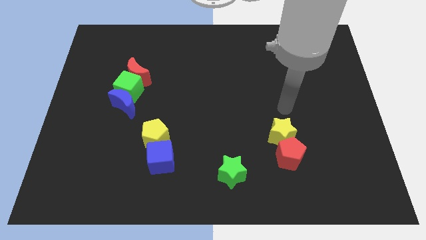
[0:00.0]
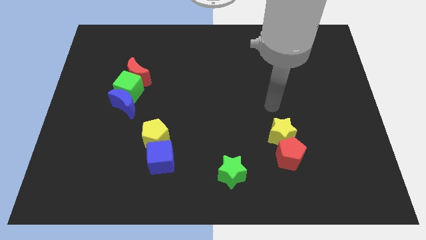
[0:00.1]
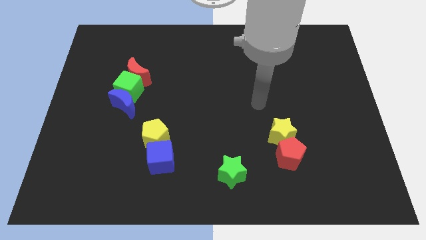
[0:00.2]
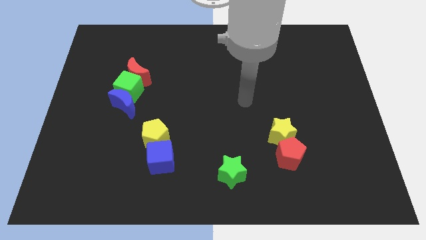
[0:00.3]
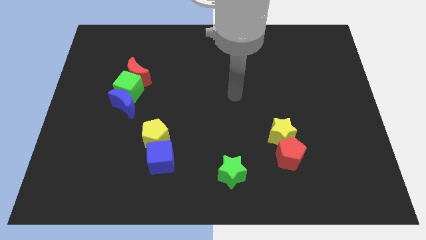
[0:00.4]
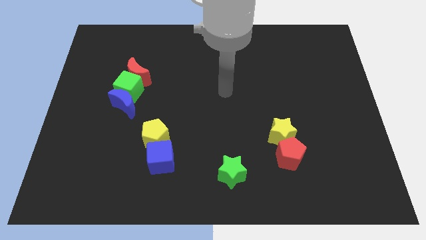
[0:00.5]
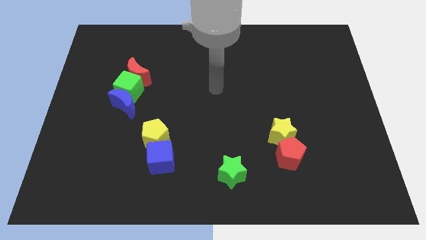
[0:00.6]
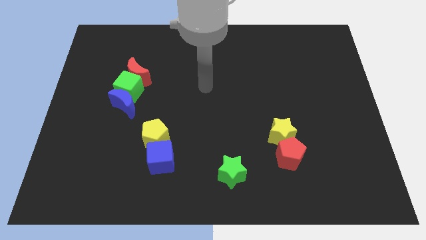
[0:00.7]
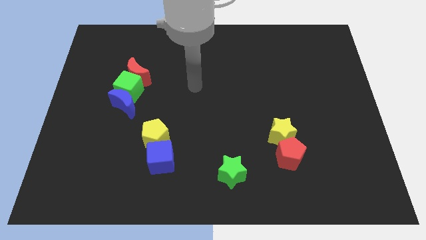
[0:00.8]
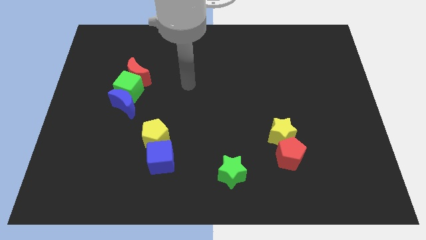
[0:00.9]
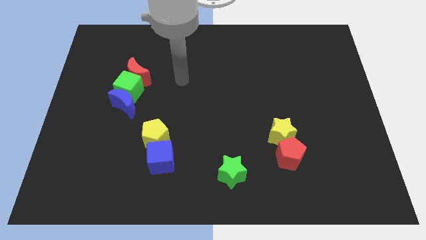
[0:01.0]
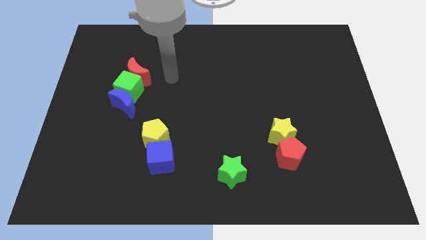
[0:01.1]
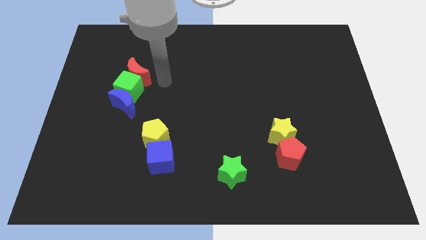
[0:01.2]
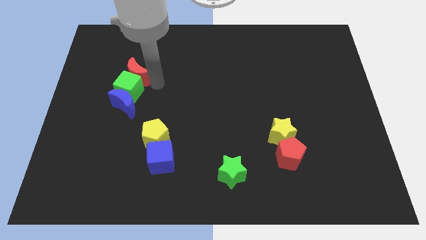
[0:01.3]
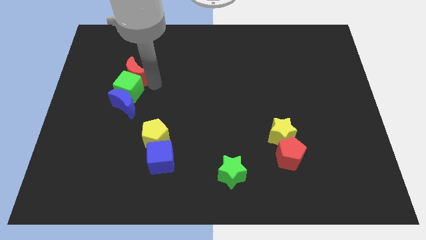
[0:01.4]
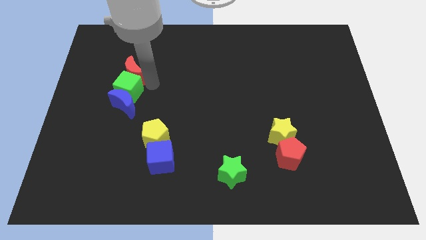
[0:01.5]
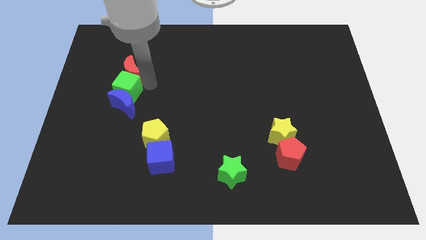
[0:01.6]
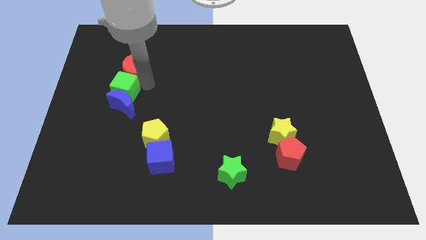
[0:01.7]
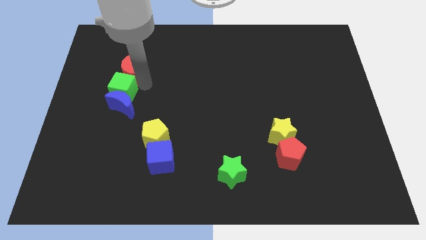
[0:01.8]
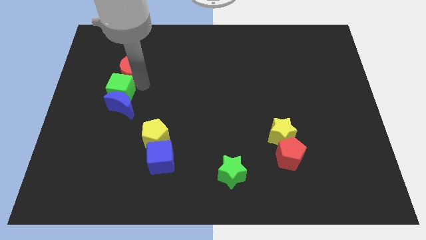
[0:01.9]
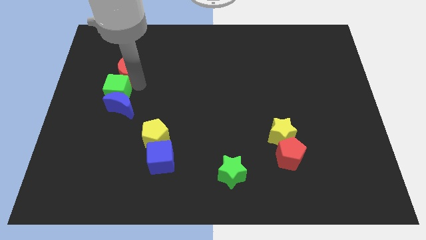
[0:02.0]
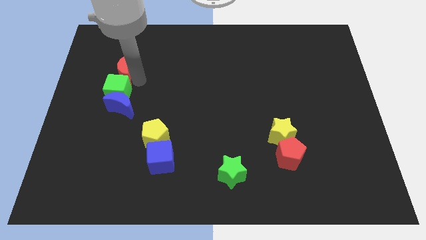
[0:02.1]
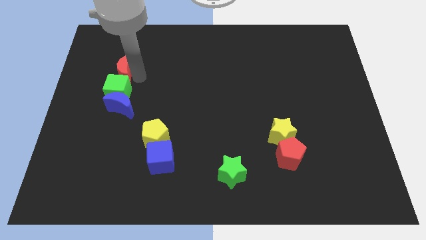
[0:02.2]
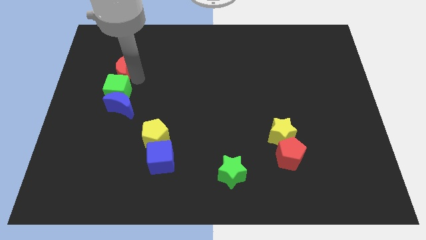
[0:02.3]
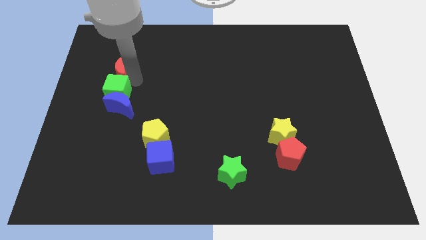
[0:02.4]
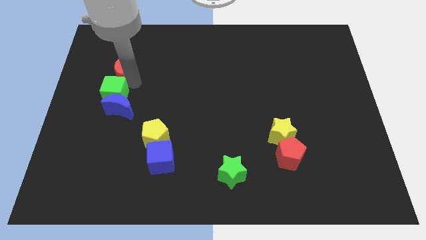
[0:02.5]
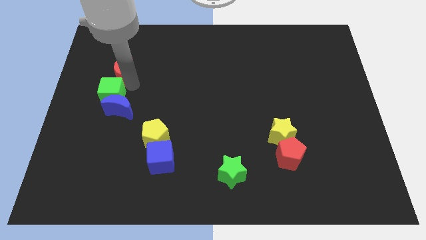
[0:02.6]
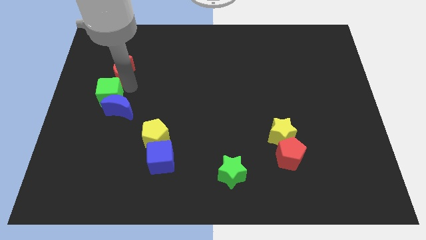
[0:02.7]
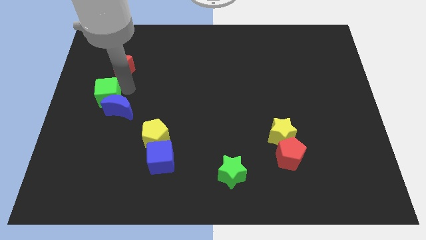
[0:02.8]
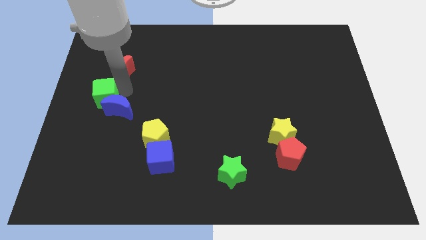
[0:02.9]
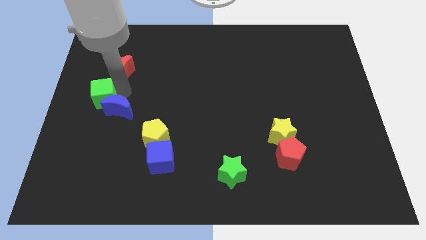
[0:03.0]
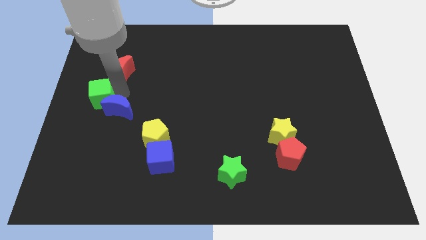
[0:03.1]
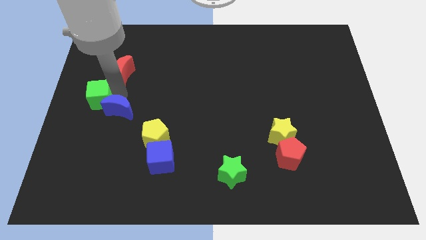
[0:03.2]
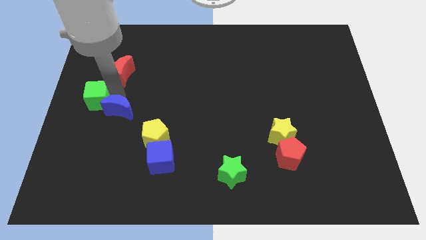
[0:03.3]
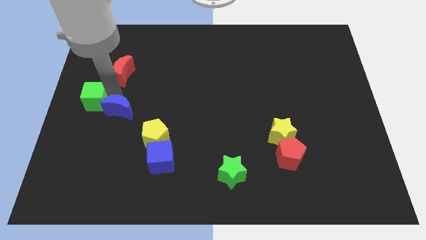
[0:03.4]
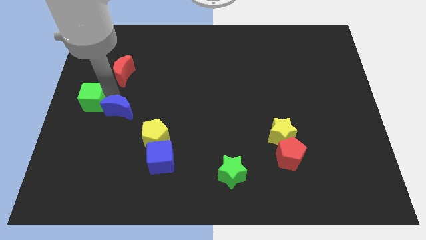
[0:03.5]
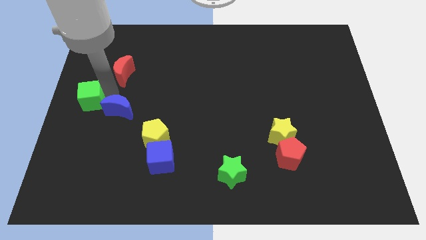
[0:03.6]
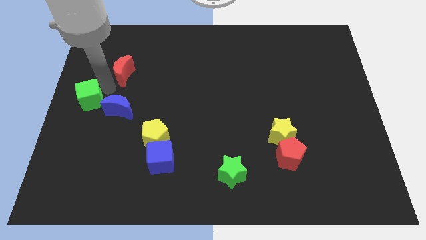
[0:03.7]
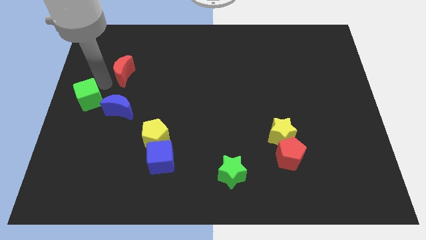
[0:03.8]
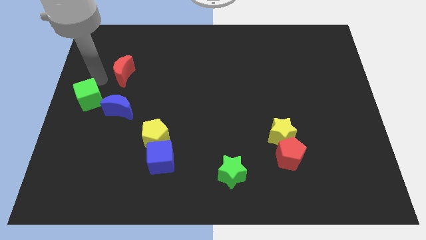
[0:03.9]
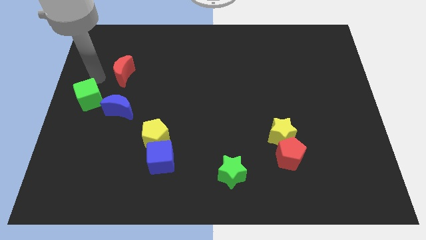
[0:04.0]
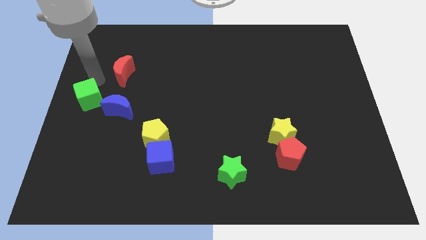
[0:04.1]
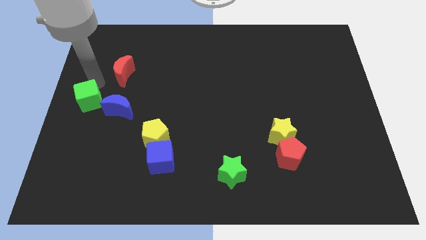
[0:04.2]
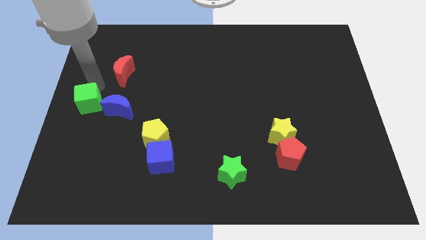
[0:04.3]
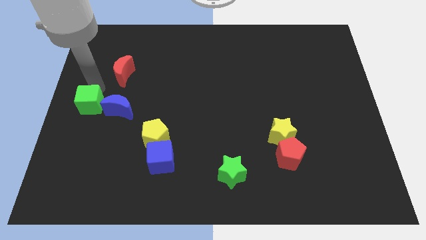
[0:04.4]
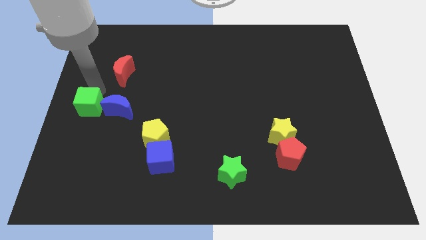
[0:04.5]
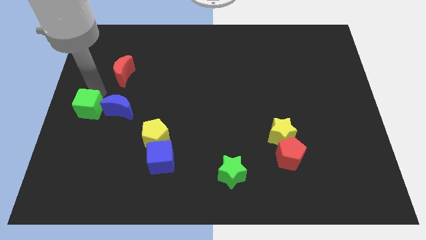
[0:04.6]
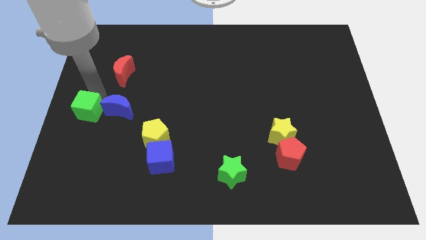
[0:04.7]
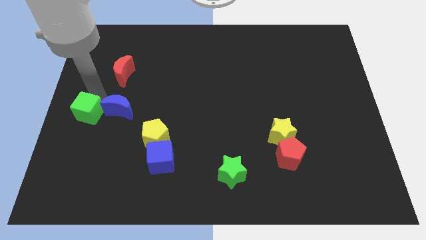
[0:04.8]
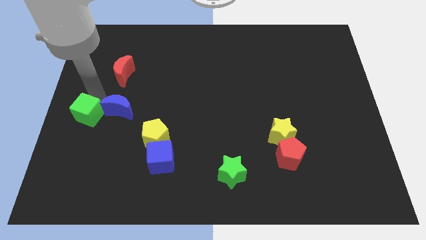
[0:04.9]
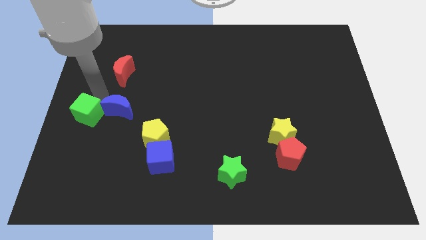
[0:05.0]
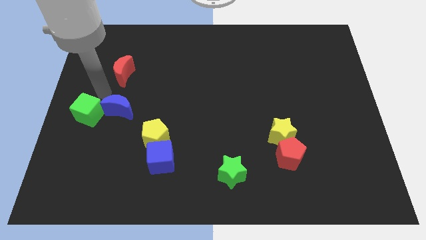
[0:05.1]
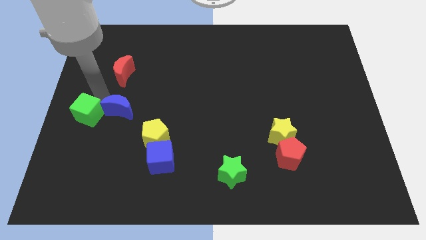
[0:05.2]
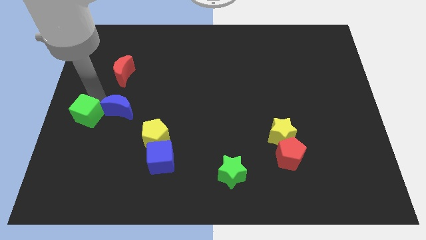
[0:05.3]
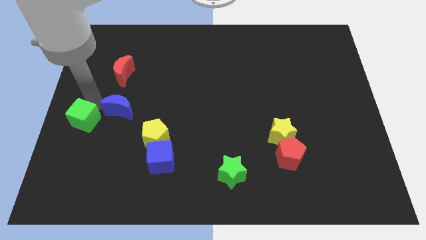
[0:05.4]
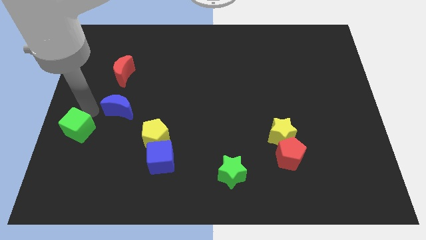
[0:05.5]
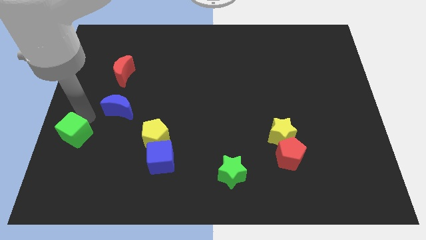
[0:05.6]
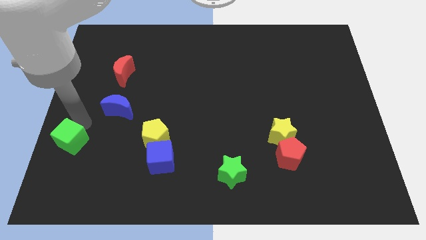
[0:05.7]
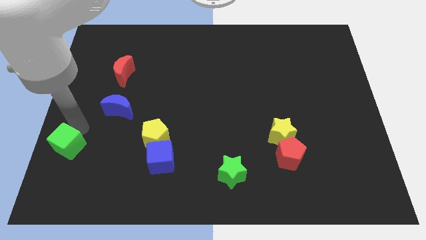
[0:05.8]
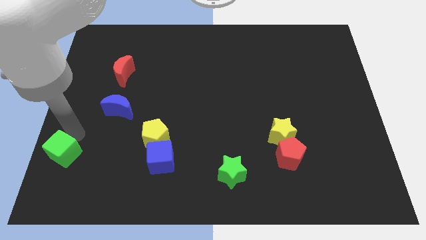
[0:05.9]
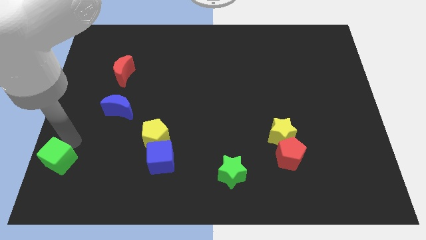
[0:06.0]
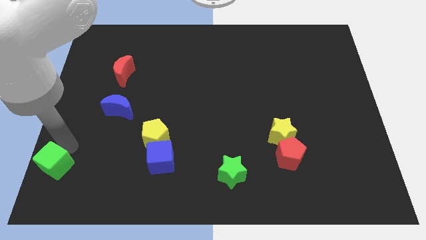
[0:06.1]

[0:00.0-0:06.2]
slide the green cube to the bottom left corner
